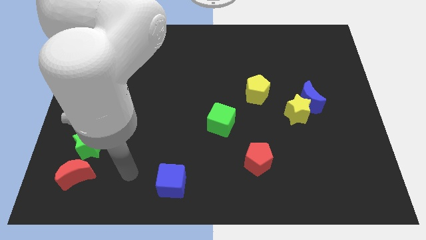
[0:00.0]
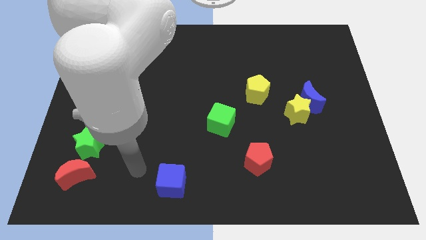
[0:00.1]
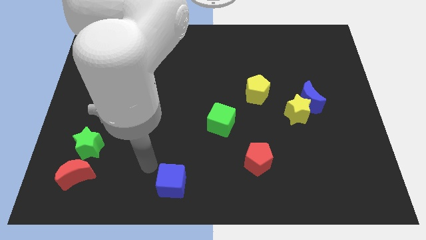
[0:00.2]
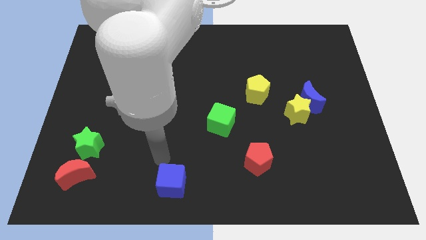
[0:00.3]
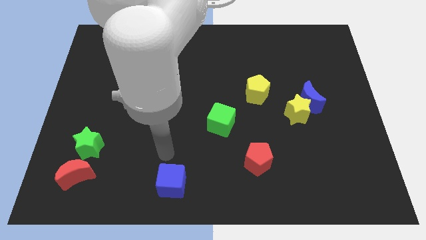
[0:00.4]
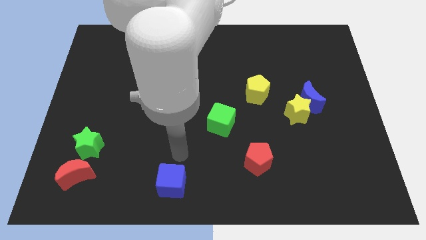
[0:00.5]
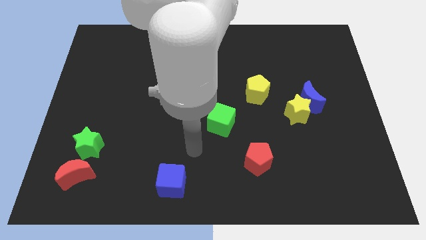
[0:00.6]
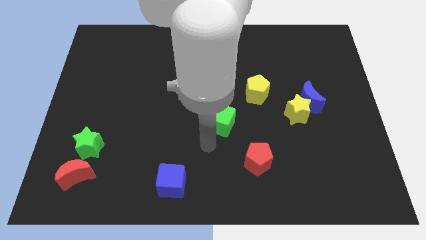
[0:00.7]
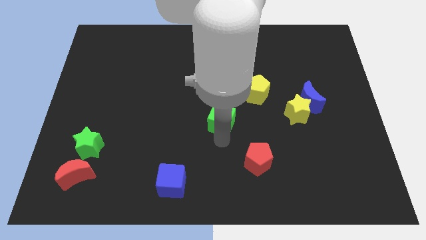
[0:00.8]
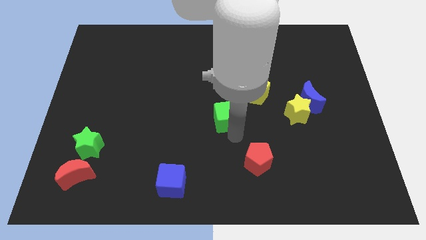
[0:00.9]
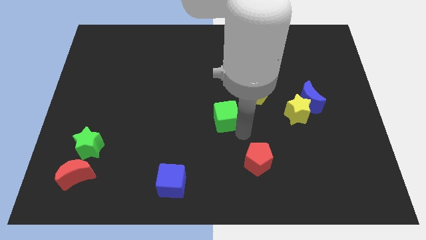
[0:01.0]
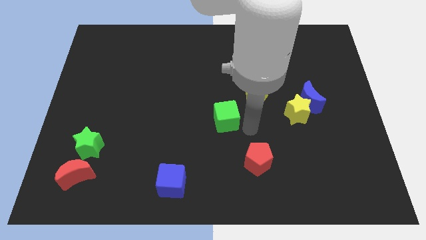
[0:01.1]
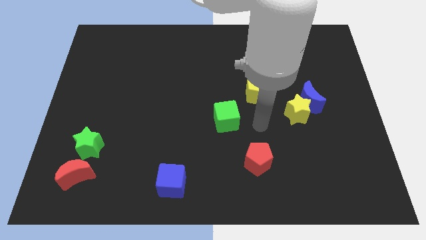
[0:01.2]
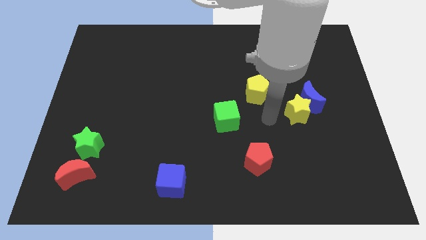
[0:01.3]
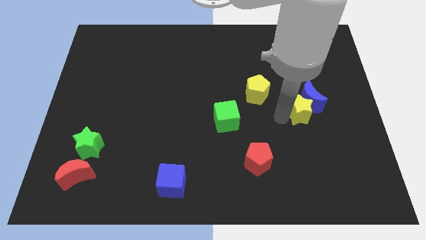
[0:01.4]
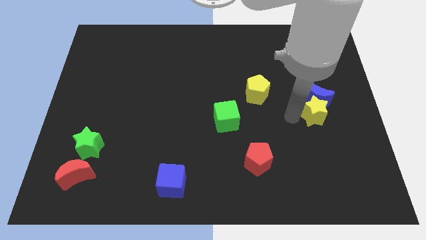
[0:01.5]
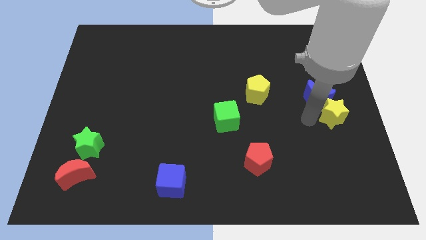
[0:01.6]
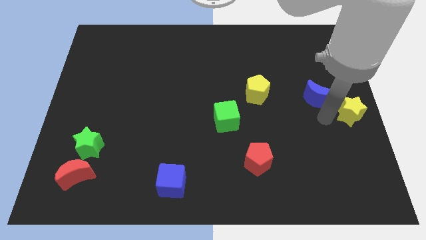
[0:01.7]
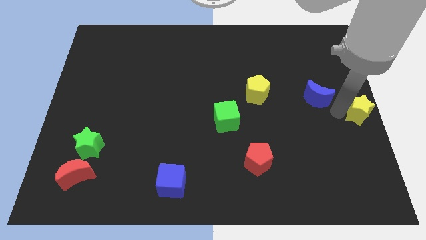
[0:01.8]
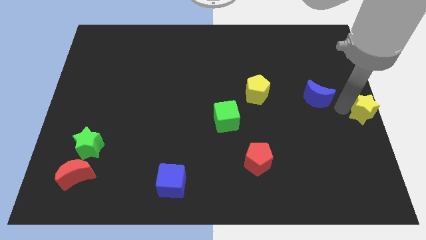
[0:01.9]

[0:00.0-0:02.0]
separate the blue moon from the yellow star

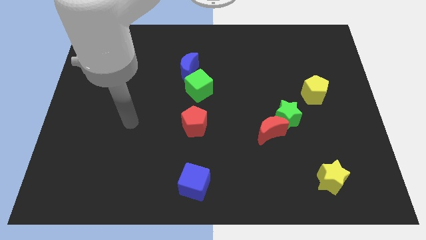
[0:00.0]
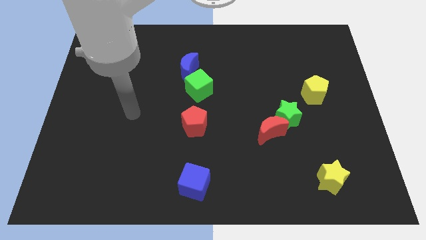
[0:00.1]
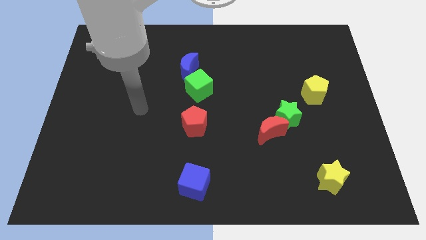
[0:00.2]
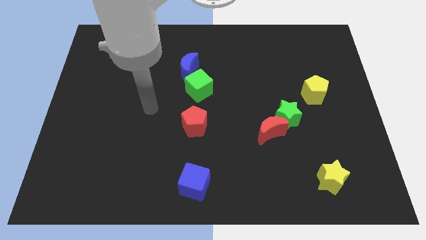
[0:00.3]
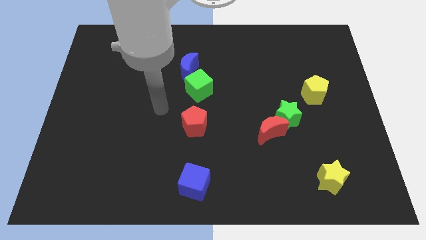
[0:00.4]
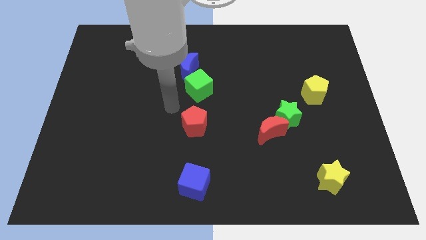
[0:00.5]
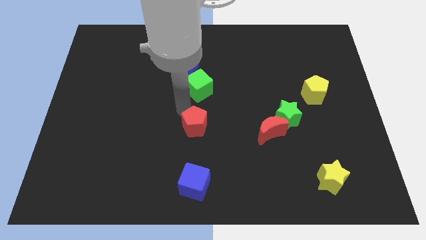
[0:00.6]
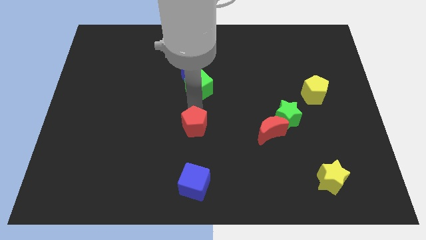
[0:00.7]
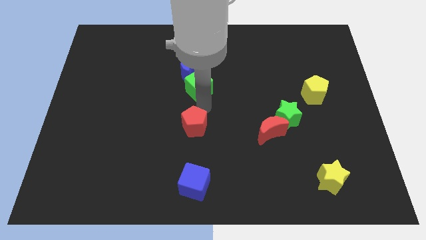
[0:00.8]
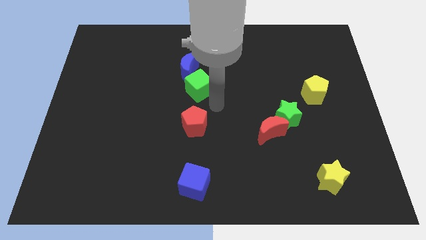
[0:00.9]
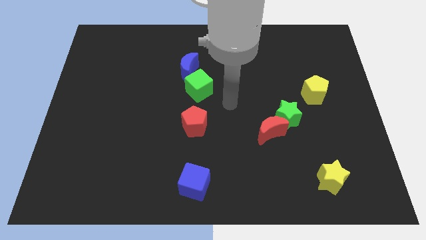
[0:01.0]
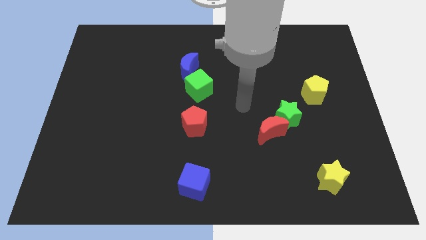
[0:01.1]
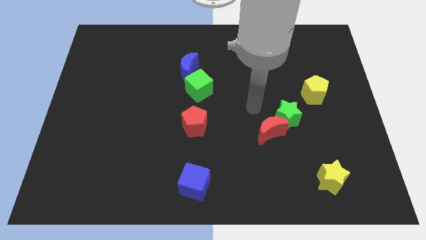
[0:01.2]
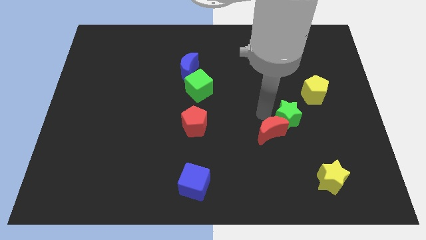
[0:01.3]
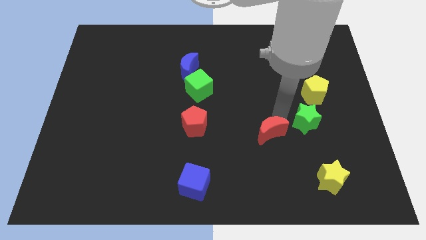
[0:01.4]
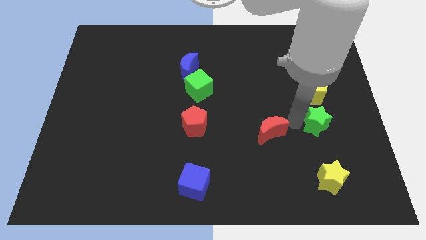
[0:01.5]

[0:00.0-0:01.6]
pull the red moon apart from the green star

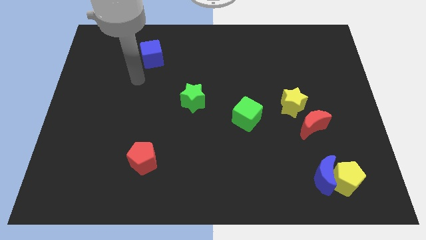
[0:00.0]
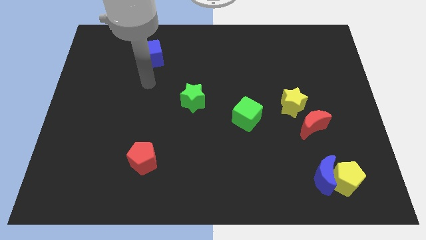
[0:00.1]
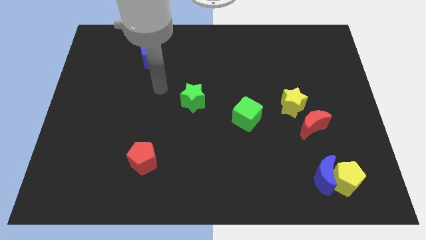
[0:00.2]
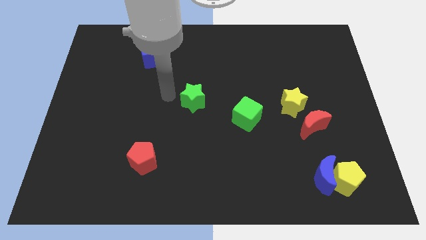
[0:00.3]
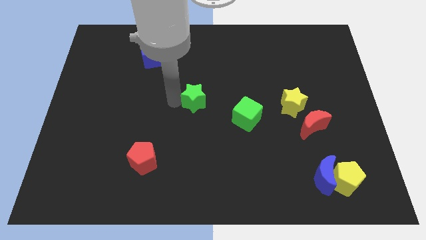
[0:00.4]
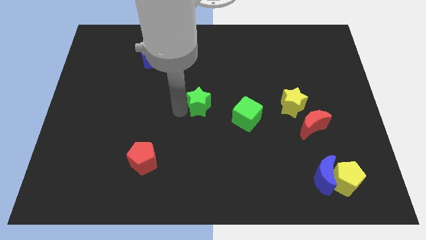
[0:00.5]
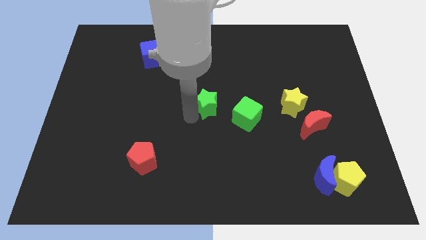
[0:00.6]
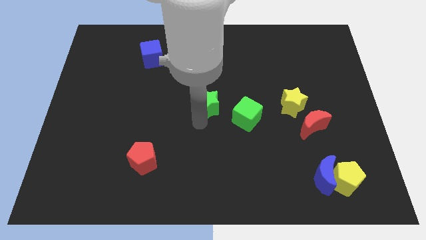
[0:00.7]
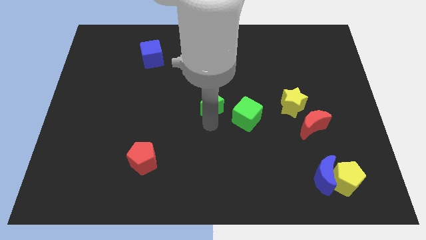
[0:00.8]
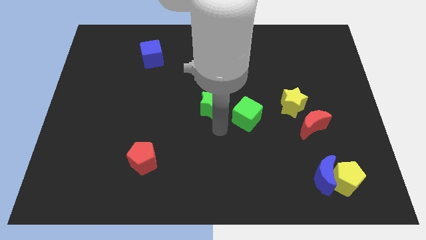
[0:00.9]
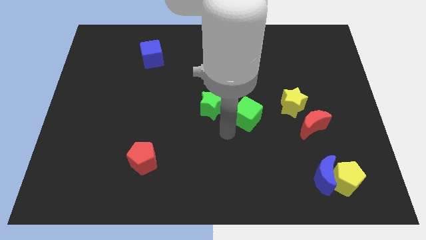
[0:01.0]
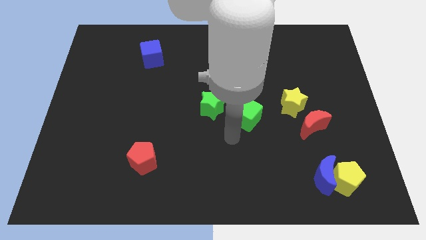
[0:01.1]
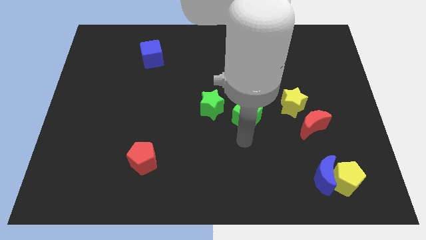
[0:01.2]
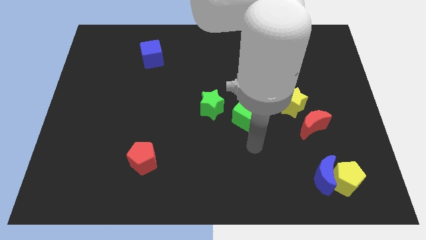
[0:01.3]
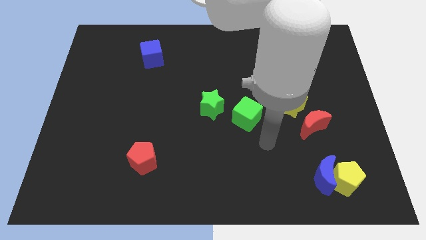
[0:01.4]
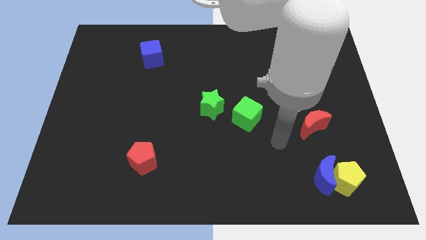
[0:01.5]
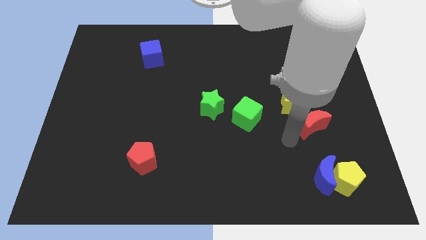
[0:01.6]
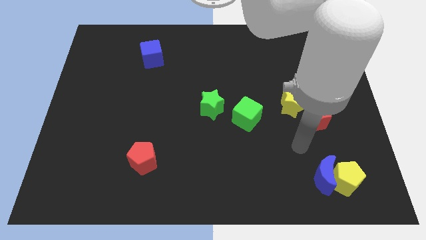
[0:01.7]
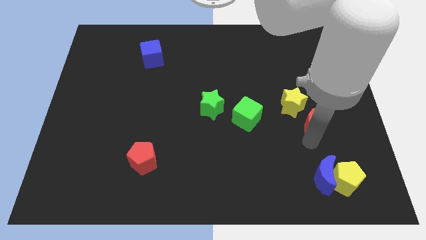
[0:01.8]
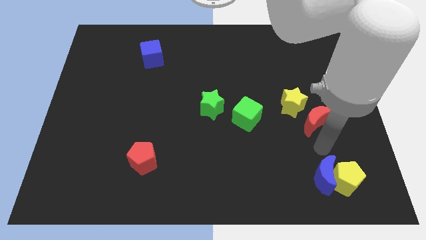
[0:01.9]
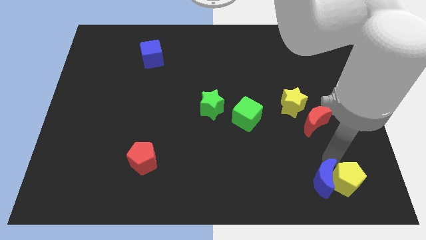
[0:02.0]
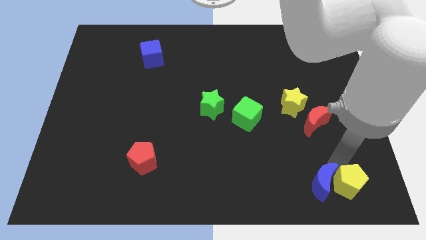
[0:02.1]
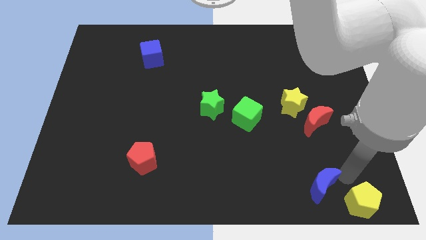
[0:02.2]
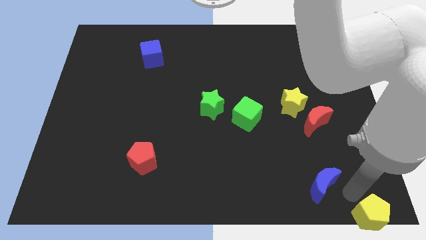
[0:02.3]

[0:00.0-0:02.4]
separate the blue moon from the yellow pentagon

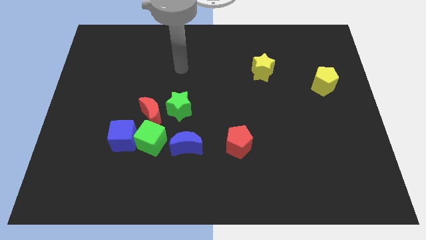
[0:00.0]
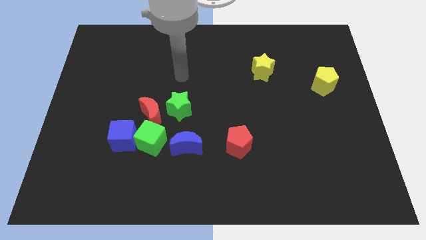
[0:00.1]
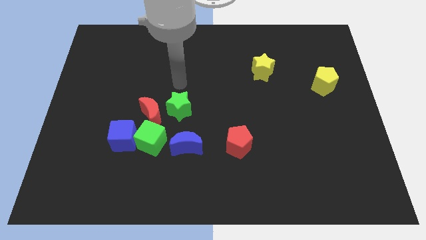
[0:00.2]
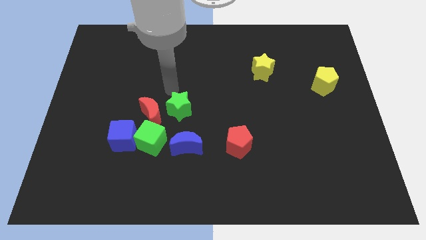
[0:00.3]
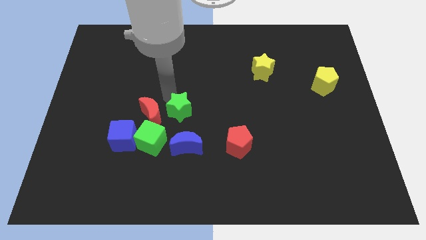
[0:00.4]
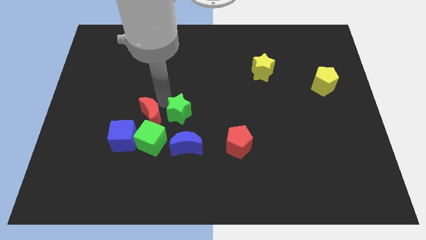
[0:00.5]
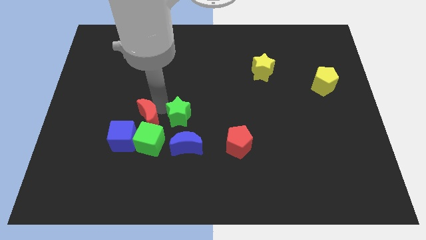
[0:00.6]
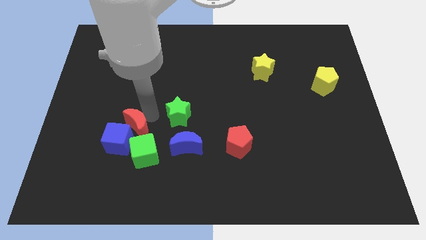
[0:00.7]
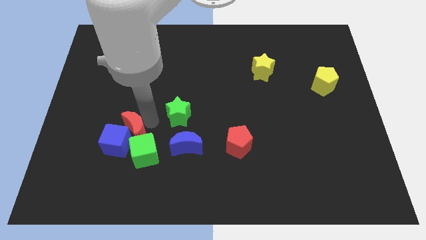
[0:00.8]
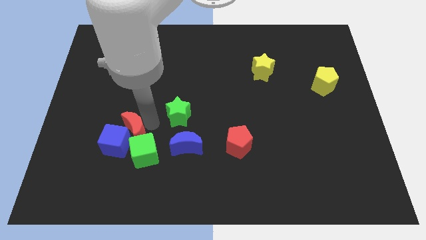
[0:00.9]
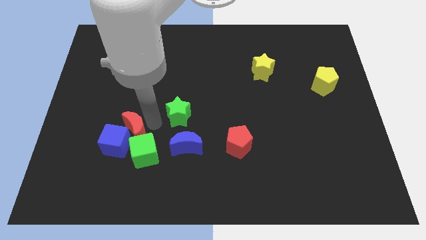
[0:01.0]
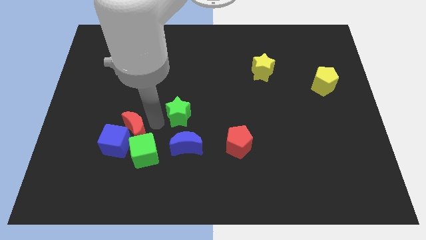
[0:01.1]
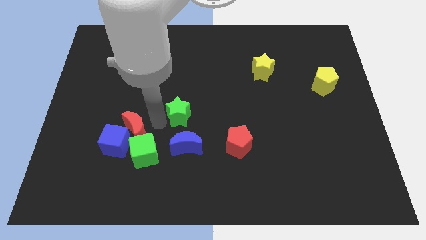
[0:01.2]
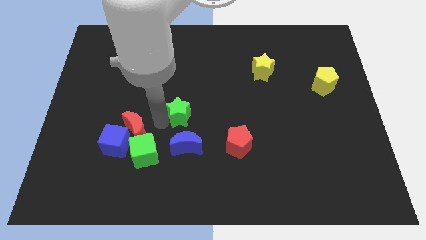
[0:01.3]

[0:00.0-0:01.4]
separate the green star from the red moon

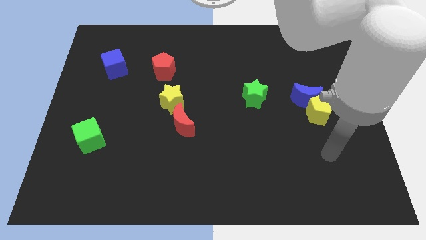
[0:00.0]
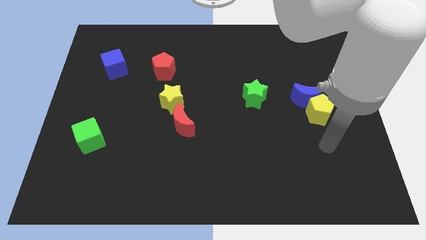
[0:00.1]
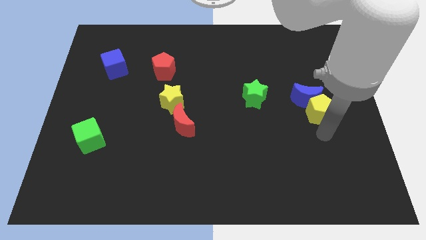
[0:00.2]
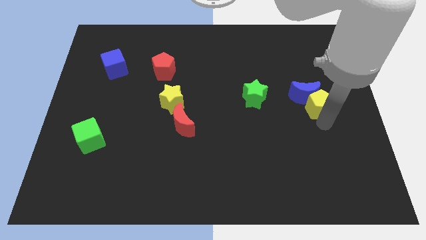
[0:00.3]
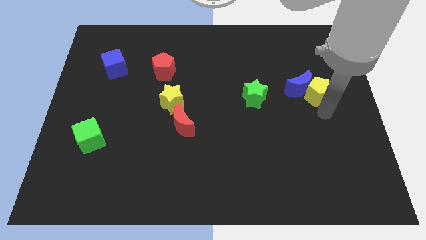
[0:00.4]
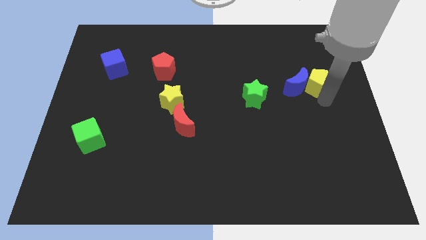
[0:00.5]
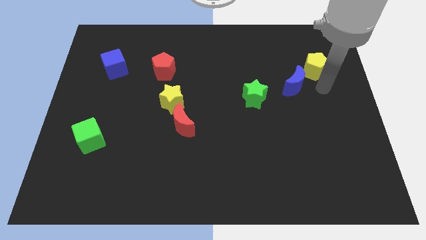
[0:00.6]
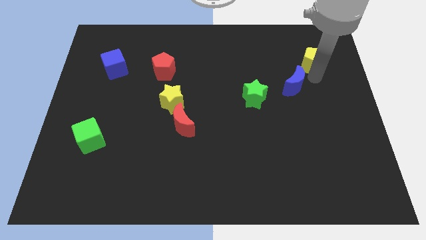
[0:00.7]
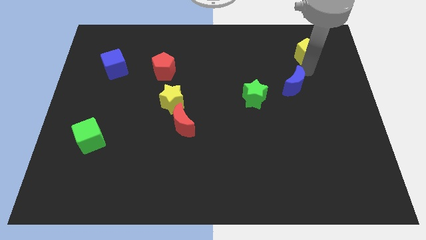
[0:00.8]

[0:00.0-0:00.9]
move the blue moon away from the yellow pentagon

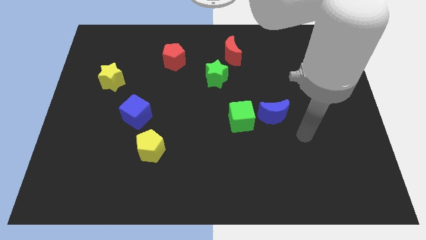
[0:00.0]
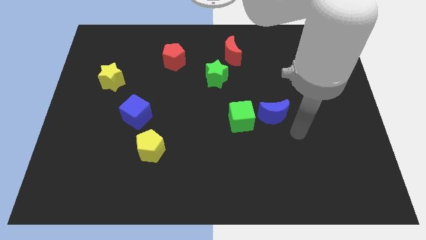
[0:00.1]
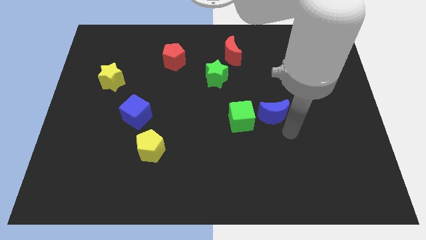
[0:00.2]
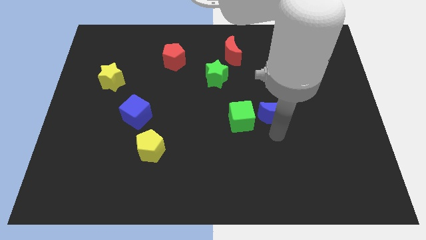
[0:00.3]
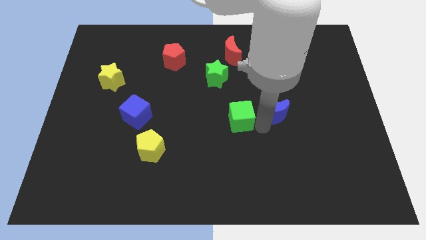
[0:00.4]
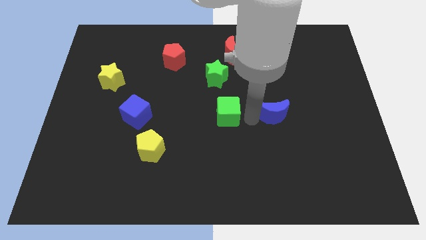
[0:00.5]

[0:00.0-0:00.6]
move the blue moon away from the green cube

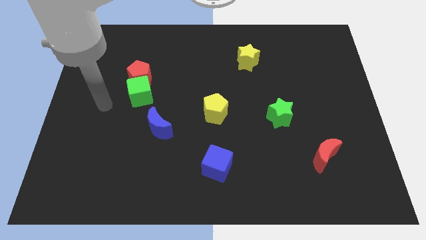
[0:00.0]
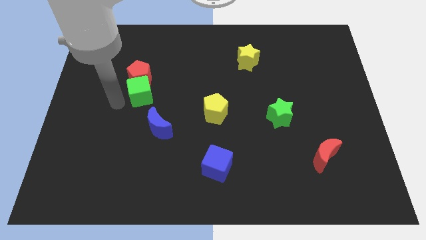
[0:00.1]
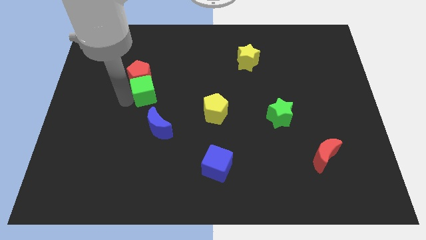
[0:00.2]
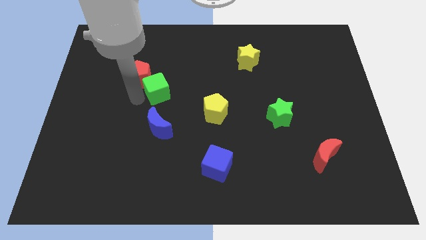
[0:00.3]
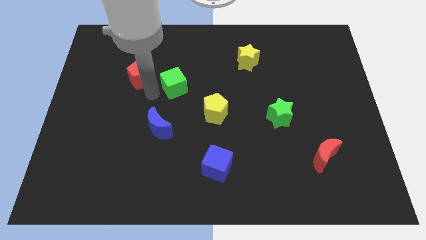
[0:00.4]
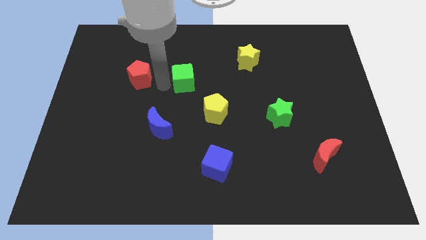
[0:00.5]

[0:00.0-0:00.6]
separate the red pentagon from the green cube
